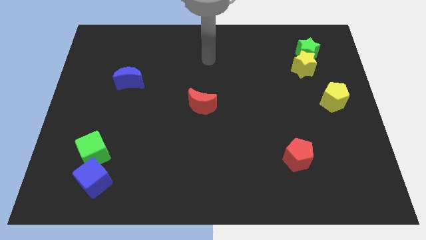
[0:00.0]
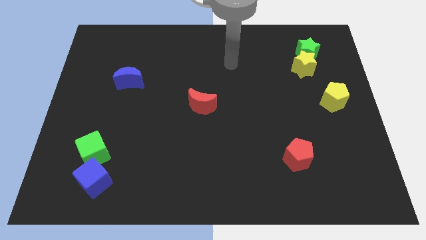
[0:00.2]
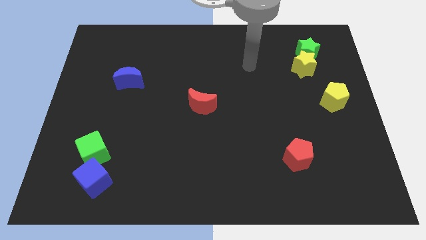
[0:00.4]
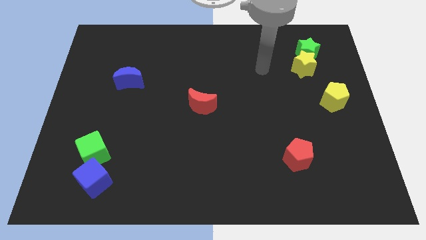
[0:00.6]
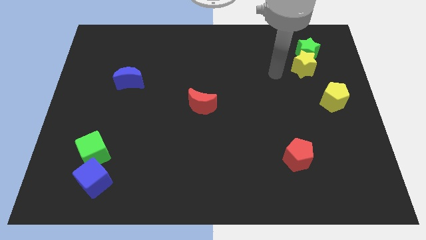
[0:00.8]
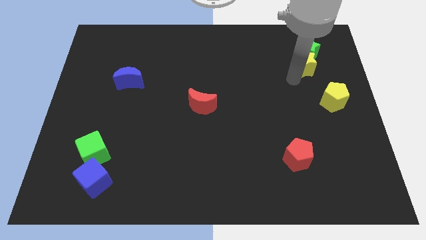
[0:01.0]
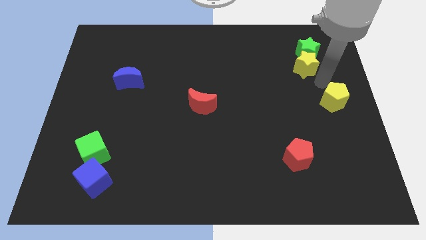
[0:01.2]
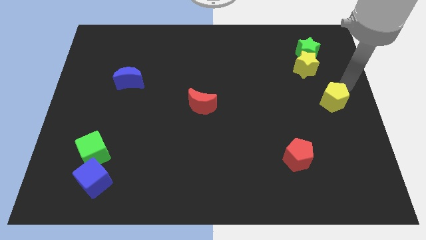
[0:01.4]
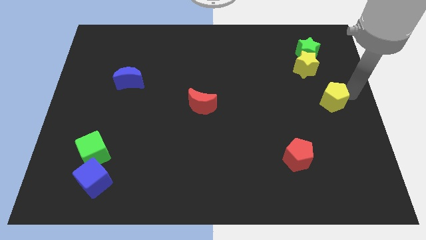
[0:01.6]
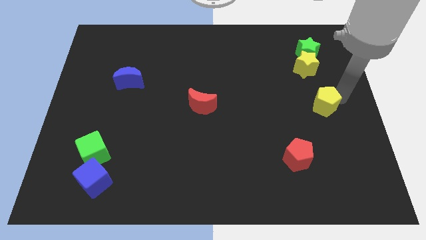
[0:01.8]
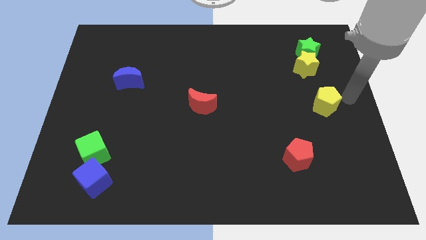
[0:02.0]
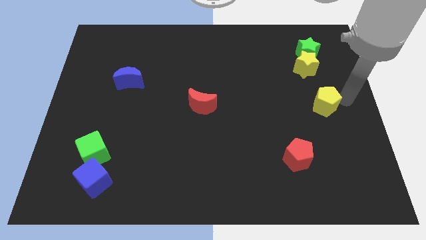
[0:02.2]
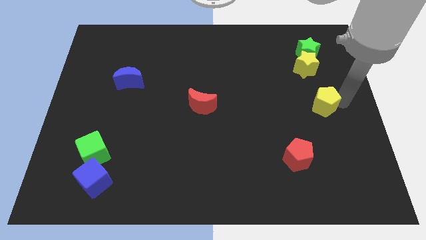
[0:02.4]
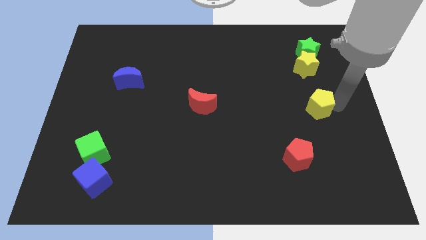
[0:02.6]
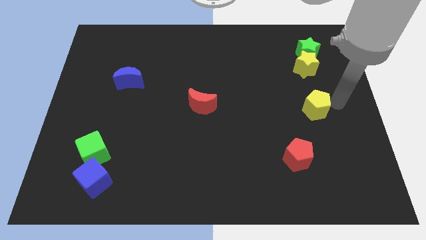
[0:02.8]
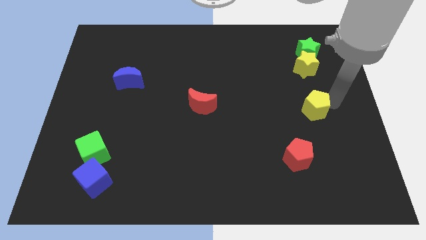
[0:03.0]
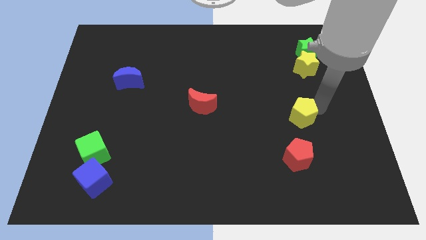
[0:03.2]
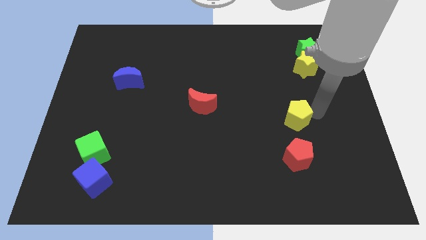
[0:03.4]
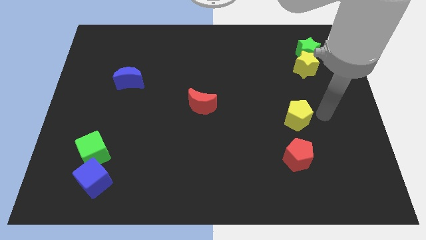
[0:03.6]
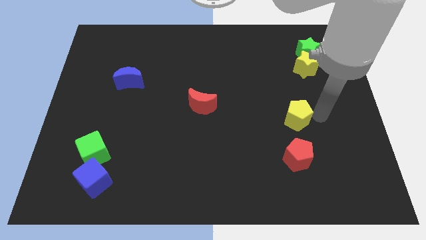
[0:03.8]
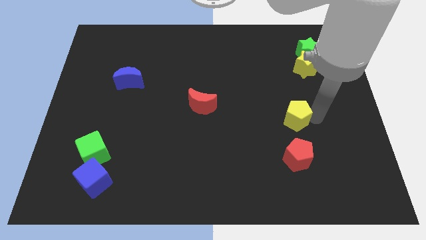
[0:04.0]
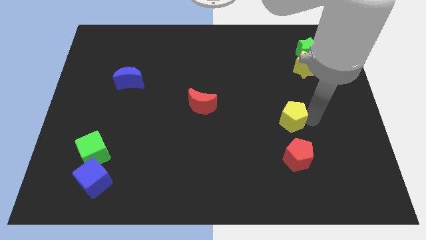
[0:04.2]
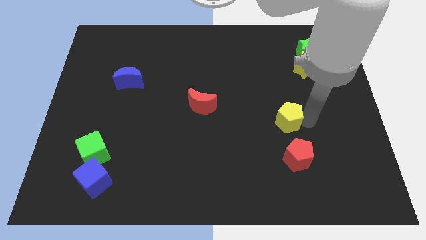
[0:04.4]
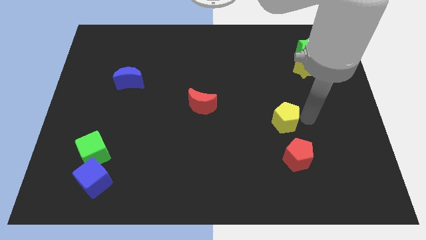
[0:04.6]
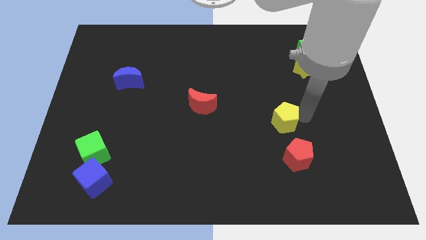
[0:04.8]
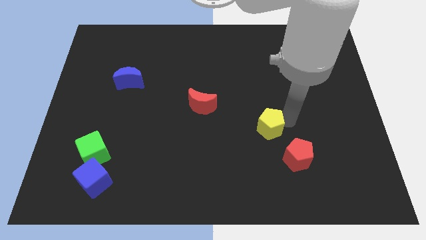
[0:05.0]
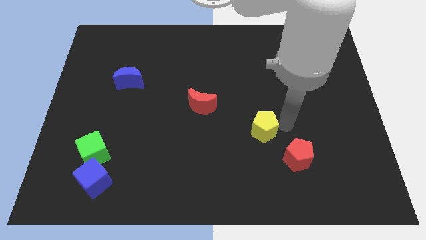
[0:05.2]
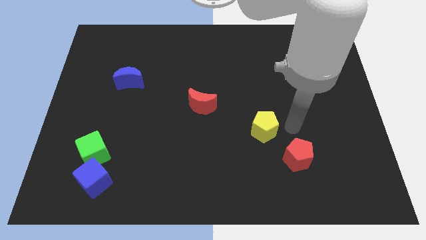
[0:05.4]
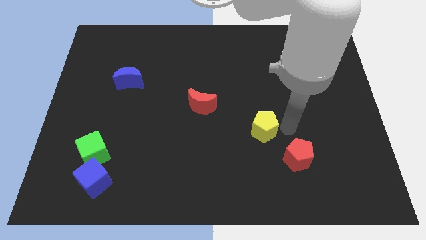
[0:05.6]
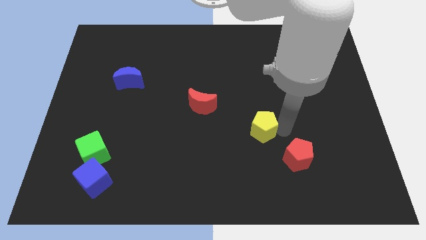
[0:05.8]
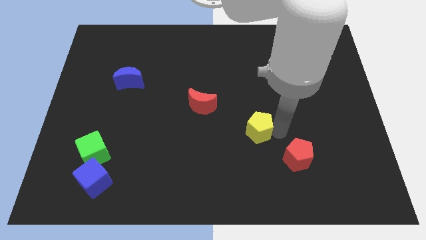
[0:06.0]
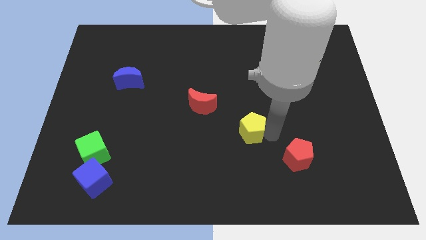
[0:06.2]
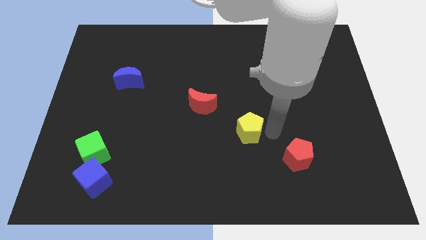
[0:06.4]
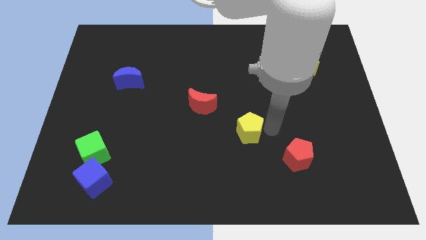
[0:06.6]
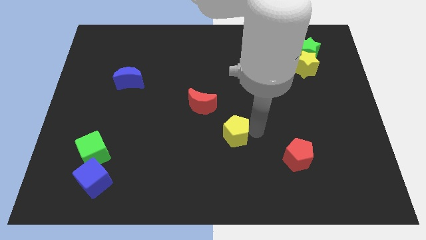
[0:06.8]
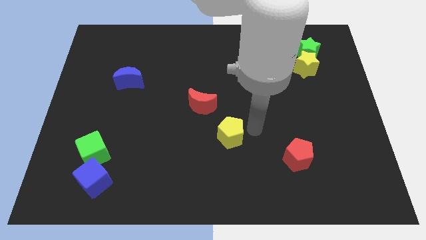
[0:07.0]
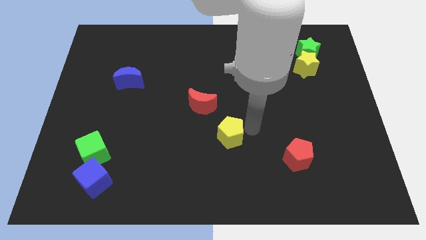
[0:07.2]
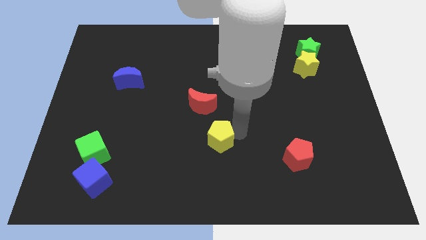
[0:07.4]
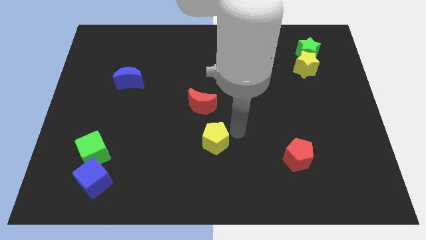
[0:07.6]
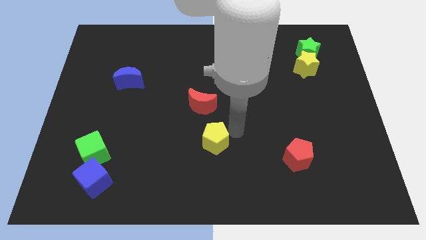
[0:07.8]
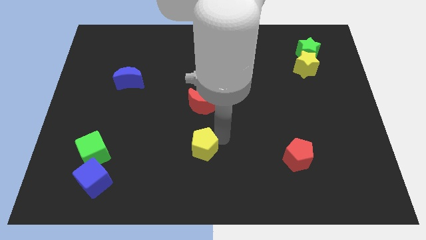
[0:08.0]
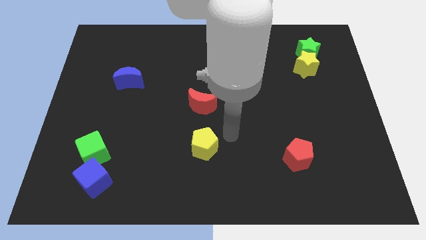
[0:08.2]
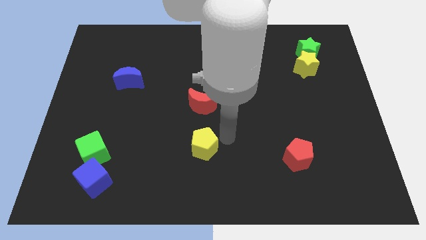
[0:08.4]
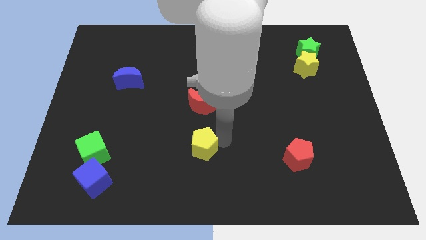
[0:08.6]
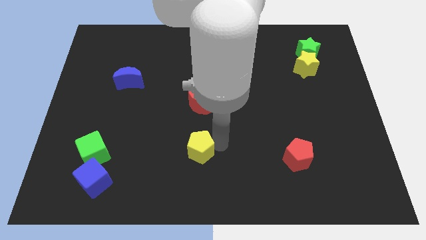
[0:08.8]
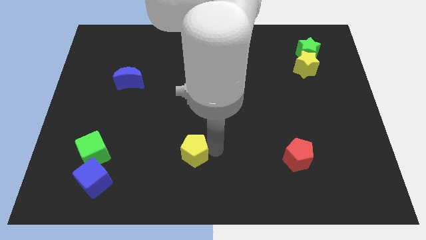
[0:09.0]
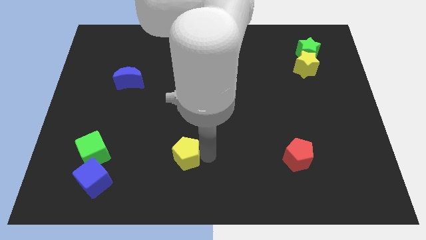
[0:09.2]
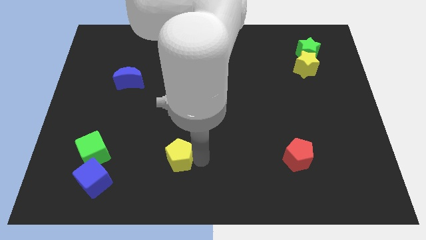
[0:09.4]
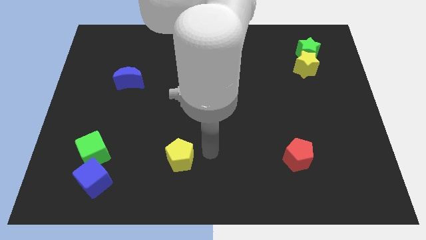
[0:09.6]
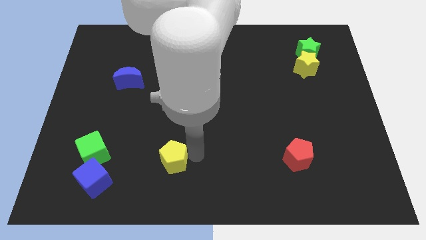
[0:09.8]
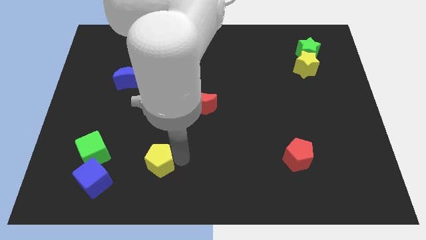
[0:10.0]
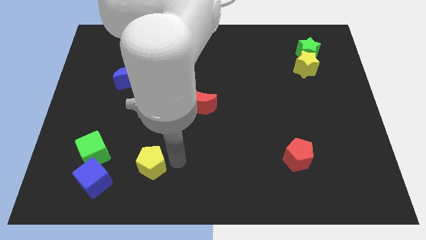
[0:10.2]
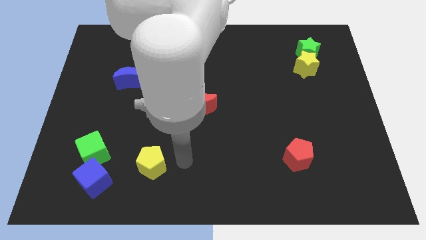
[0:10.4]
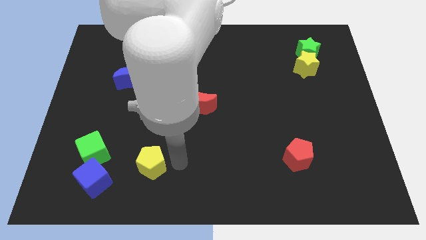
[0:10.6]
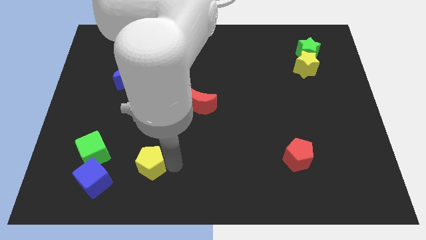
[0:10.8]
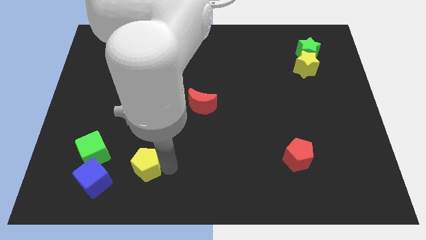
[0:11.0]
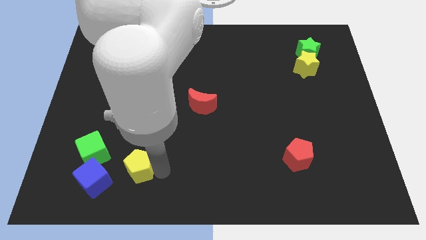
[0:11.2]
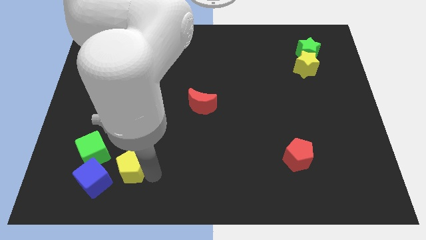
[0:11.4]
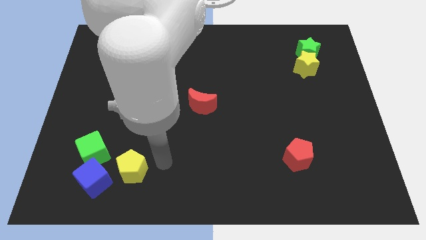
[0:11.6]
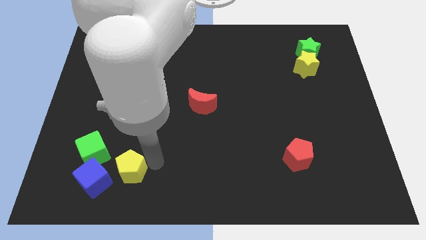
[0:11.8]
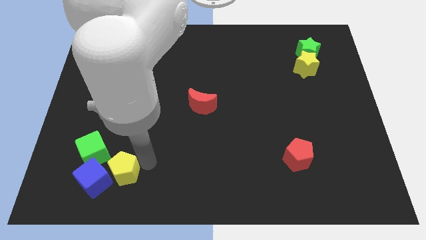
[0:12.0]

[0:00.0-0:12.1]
move the yellow pentagon close to the blue cube

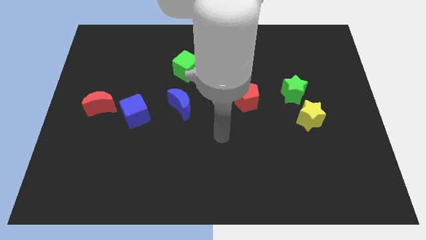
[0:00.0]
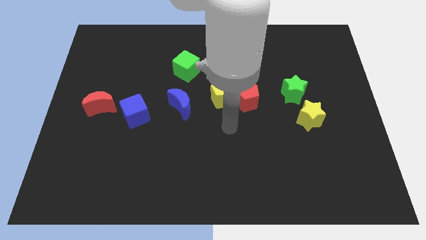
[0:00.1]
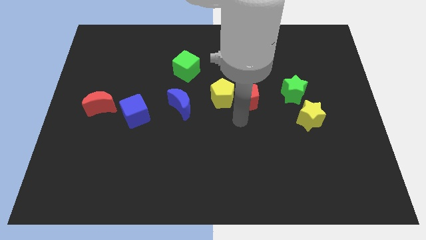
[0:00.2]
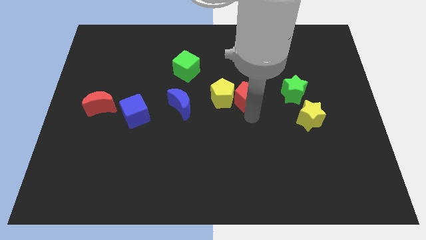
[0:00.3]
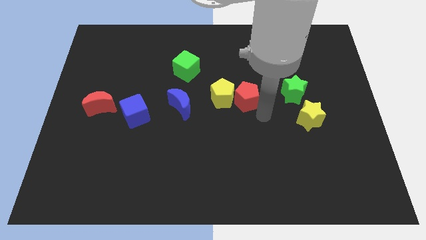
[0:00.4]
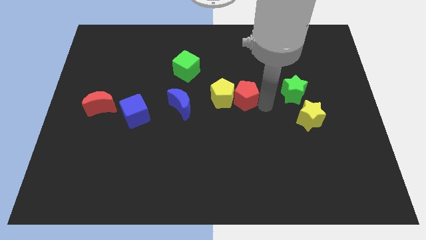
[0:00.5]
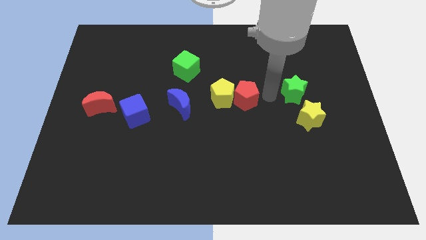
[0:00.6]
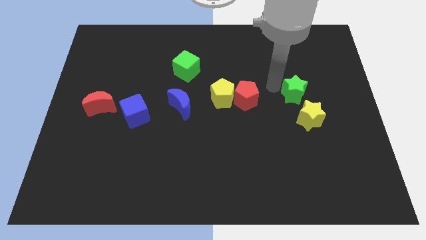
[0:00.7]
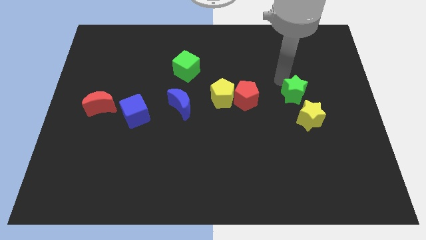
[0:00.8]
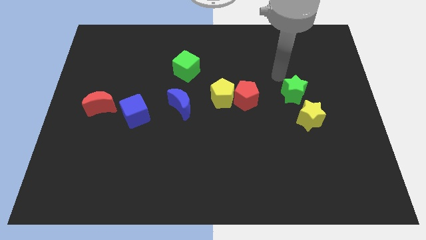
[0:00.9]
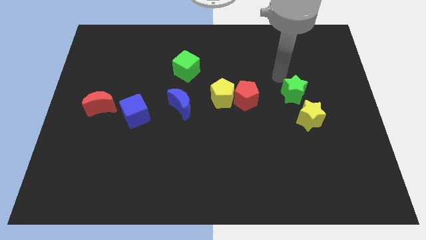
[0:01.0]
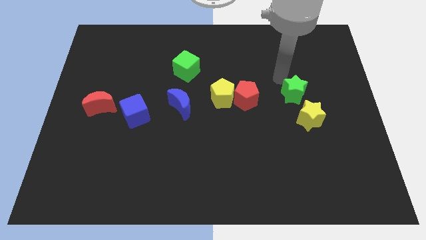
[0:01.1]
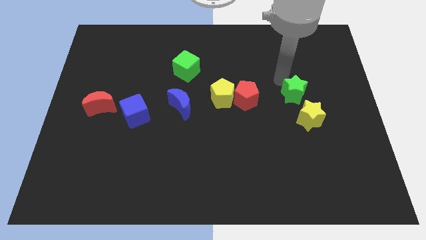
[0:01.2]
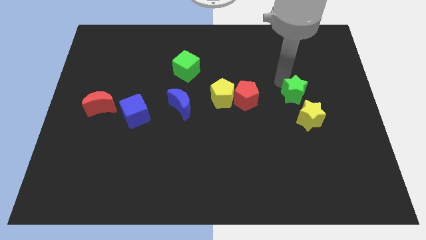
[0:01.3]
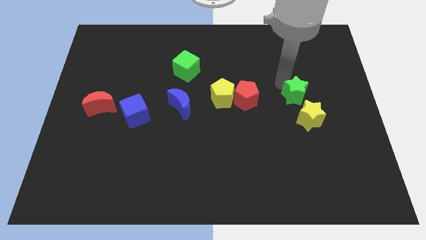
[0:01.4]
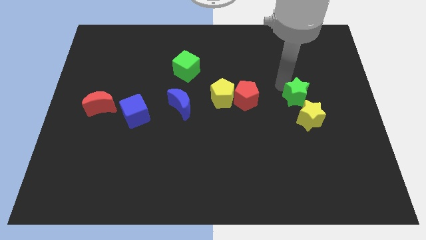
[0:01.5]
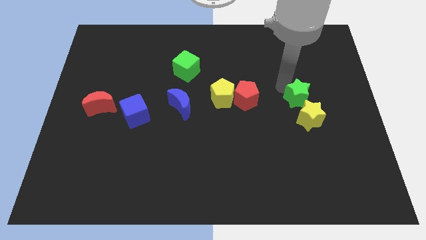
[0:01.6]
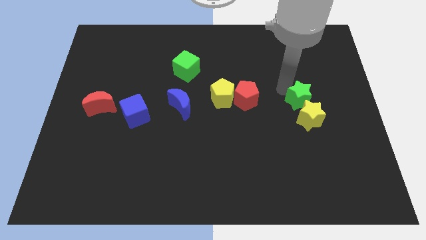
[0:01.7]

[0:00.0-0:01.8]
move the green star towards the yellow star
